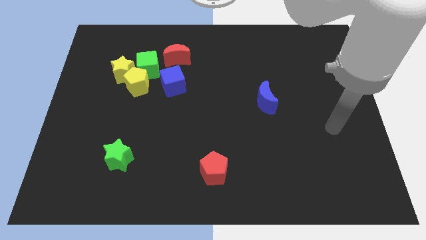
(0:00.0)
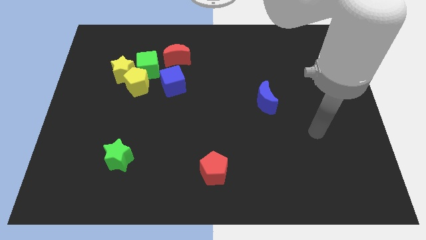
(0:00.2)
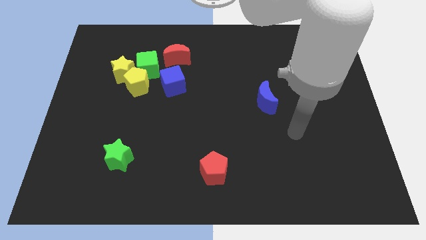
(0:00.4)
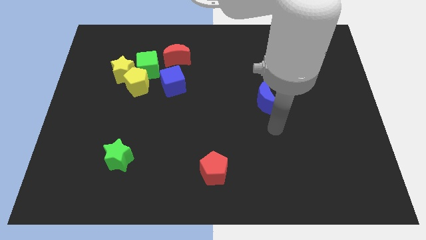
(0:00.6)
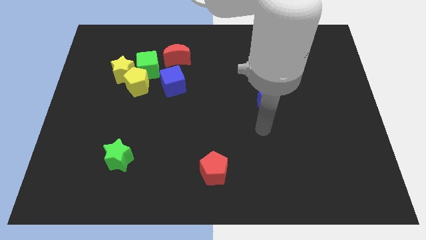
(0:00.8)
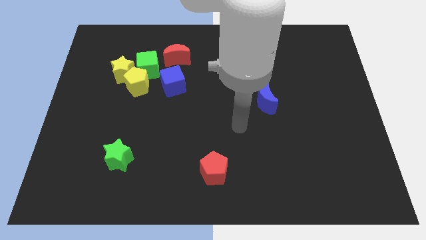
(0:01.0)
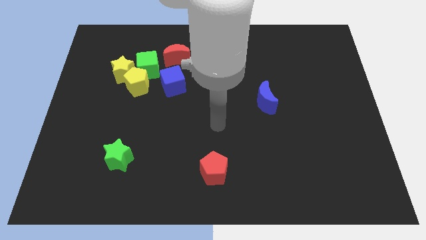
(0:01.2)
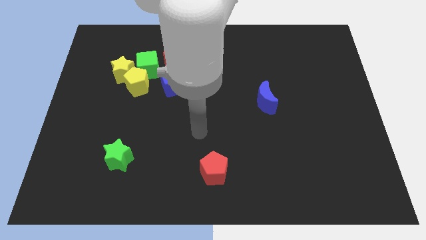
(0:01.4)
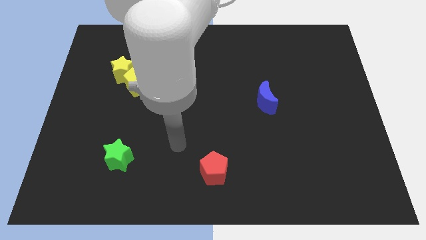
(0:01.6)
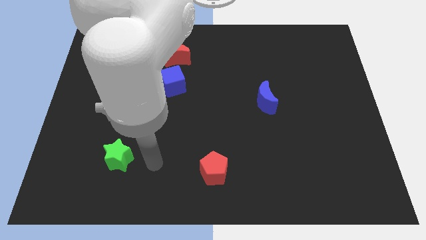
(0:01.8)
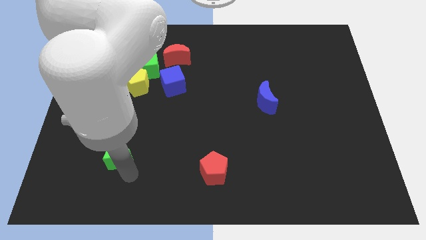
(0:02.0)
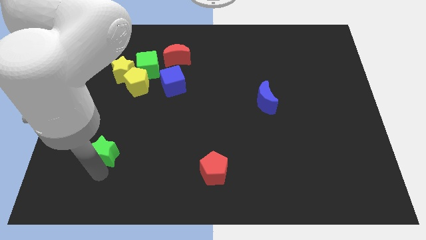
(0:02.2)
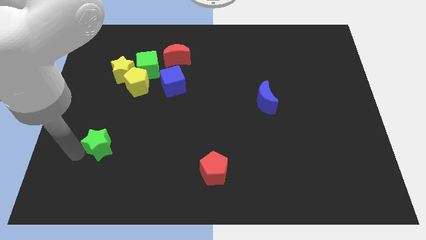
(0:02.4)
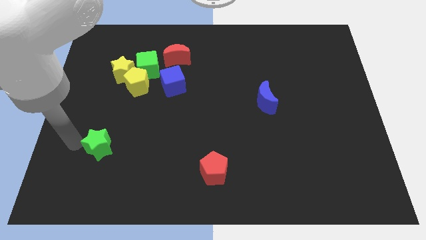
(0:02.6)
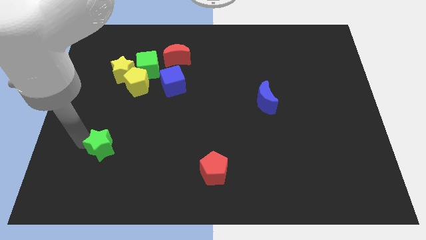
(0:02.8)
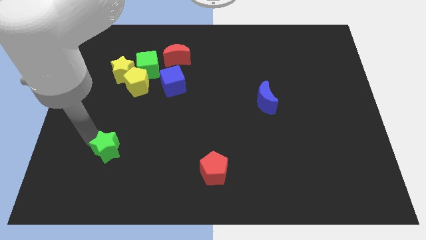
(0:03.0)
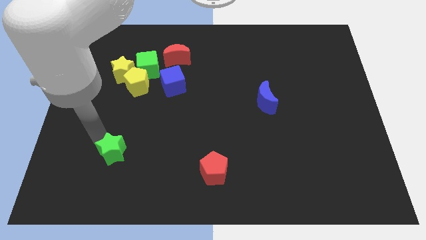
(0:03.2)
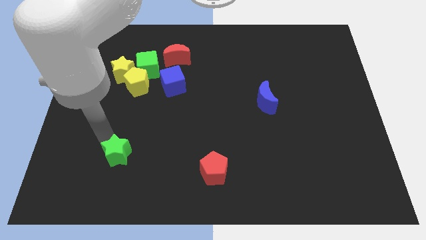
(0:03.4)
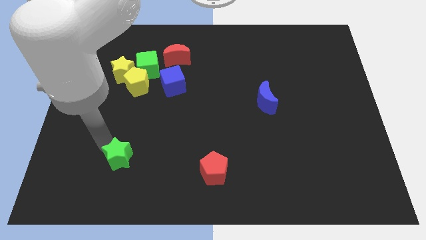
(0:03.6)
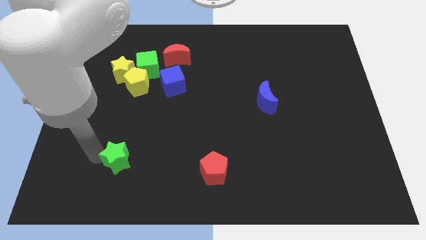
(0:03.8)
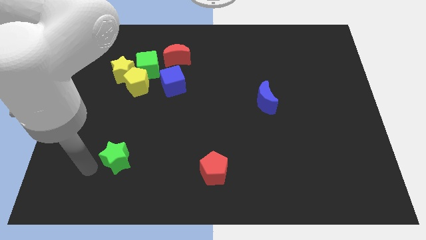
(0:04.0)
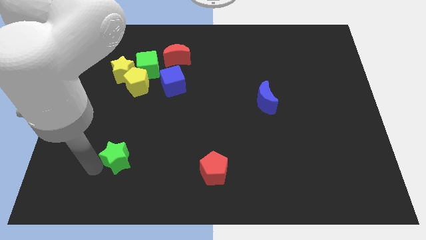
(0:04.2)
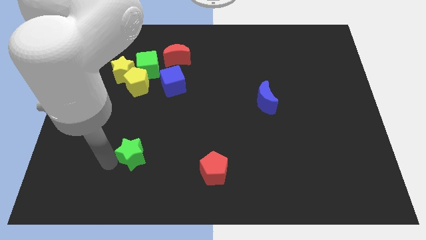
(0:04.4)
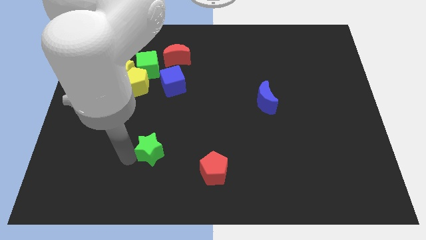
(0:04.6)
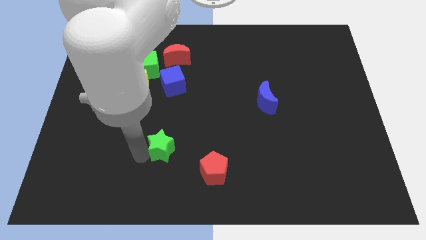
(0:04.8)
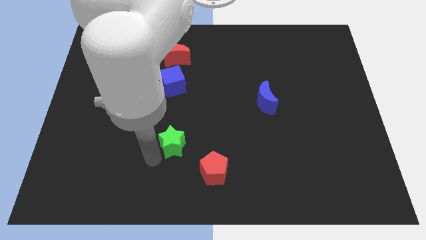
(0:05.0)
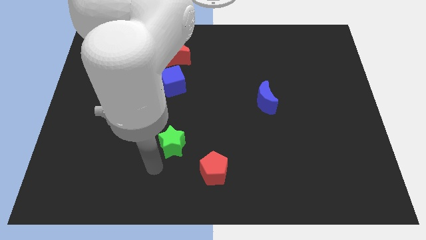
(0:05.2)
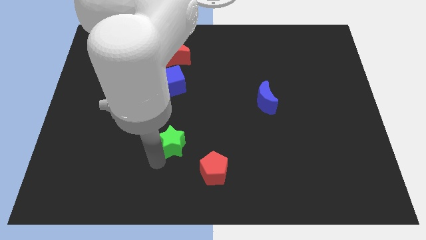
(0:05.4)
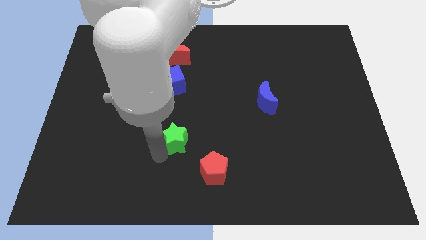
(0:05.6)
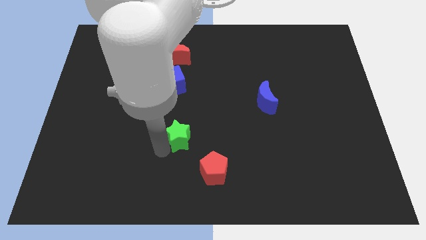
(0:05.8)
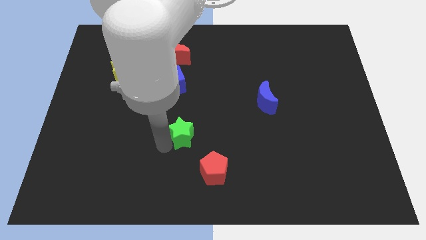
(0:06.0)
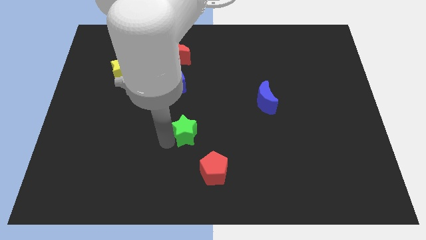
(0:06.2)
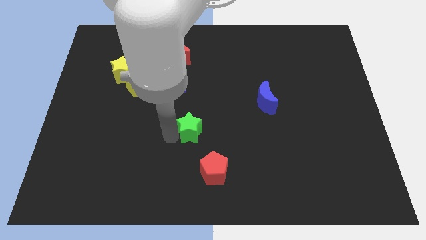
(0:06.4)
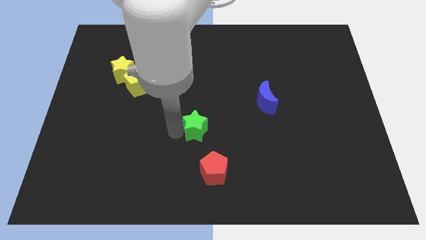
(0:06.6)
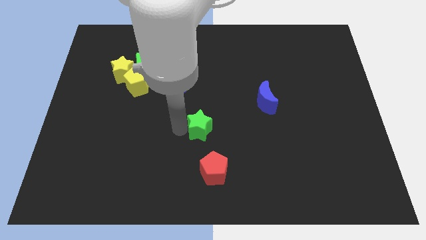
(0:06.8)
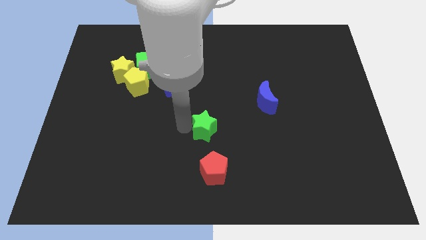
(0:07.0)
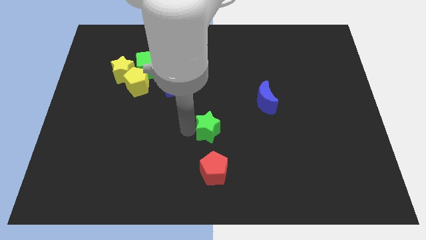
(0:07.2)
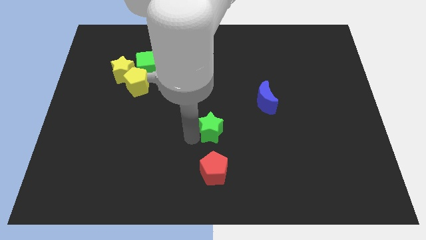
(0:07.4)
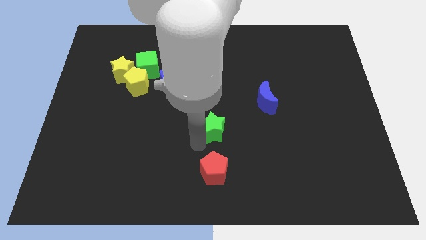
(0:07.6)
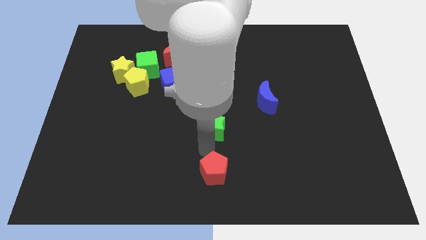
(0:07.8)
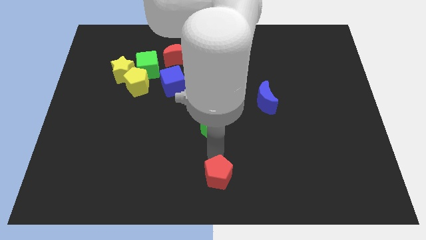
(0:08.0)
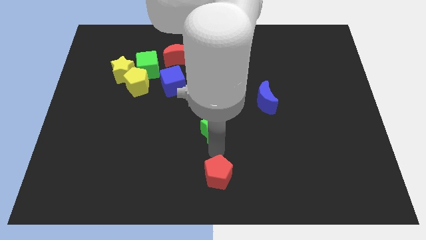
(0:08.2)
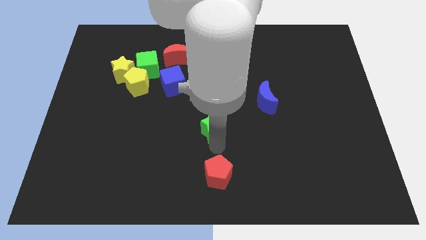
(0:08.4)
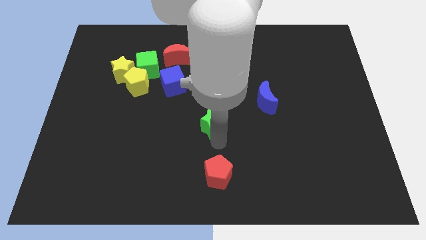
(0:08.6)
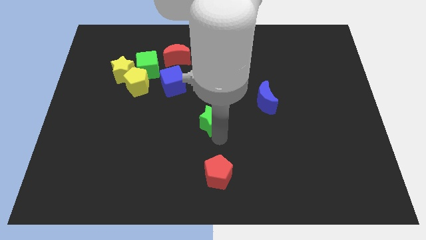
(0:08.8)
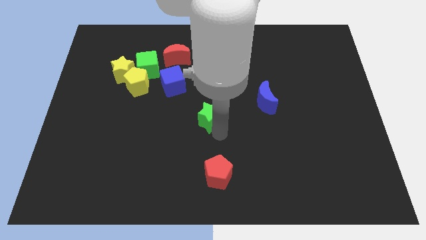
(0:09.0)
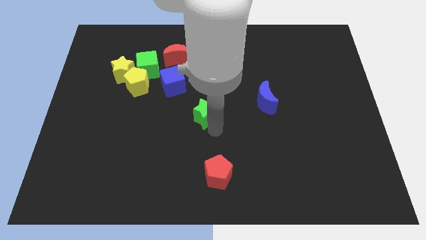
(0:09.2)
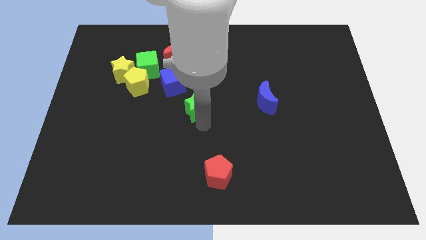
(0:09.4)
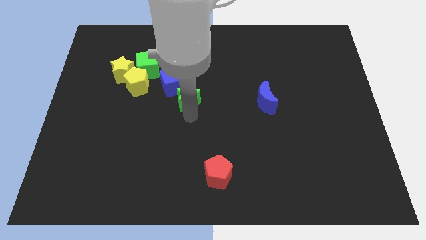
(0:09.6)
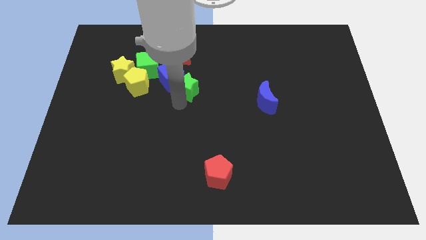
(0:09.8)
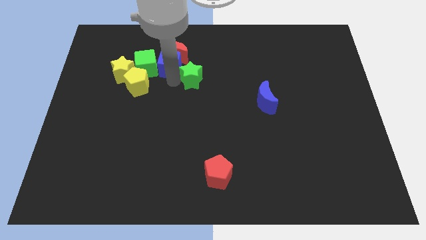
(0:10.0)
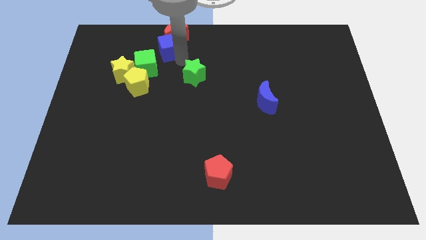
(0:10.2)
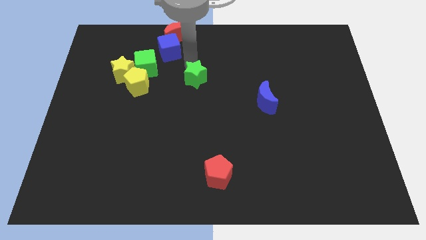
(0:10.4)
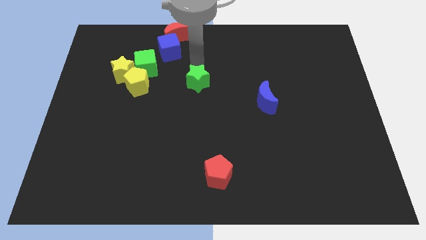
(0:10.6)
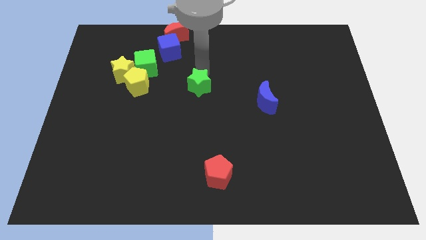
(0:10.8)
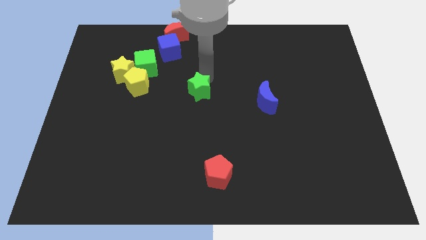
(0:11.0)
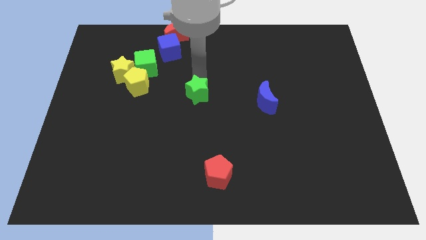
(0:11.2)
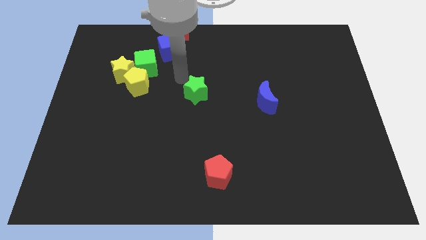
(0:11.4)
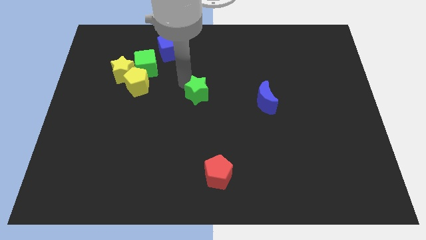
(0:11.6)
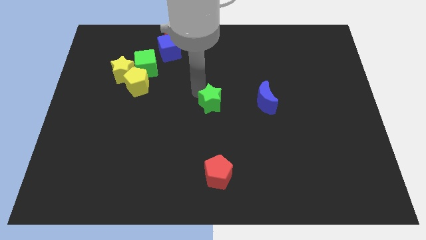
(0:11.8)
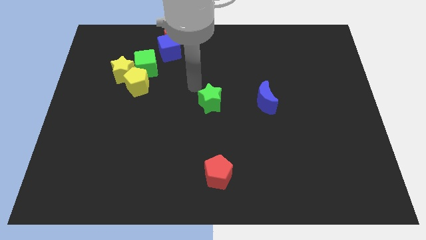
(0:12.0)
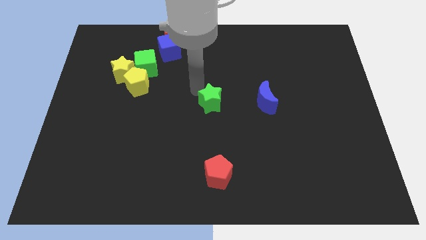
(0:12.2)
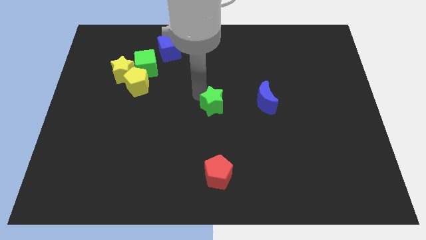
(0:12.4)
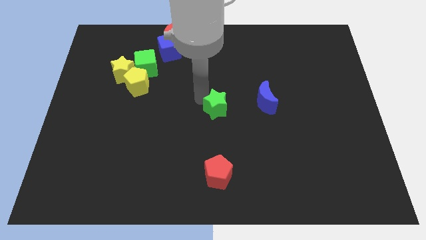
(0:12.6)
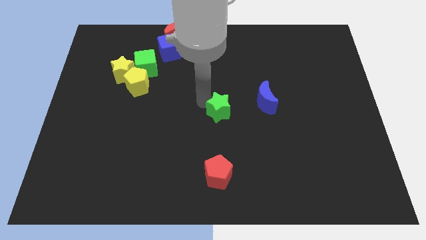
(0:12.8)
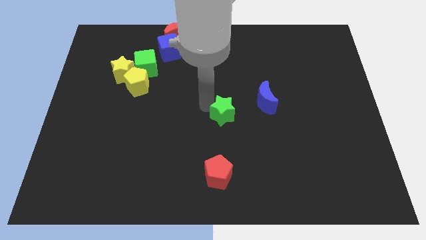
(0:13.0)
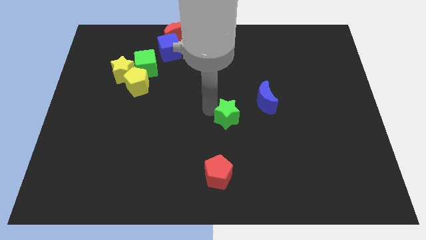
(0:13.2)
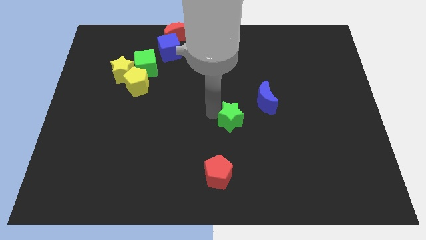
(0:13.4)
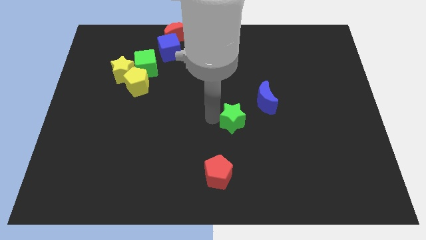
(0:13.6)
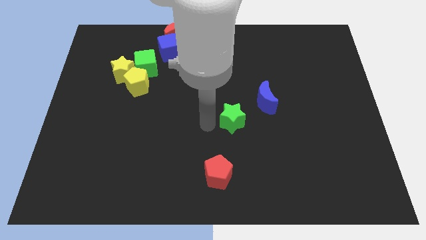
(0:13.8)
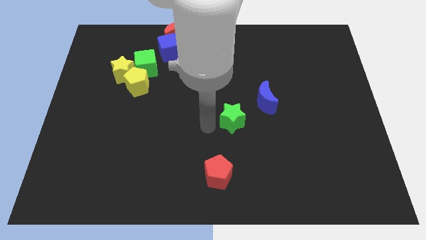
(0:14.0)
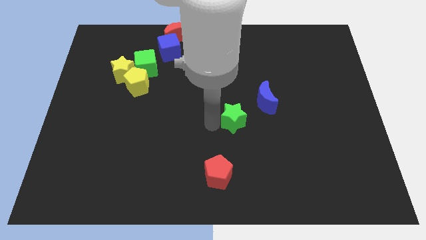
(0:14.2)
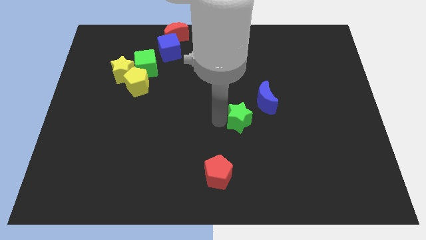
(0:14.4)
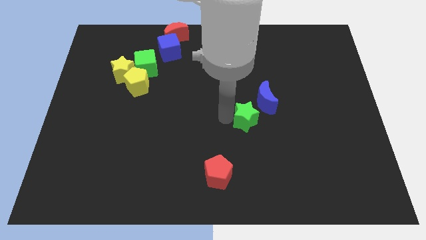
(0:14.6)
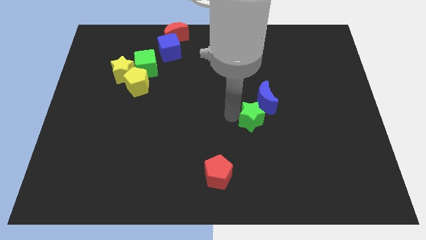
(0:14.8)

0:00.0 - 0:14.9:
push the green star towards the blue moon

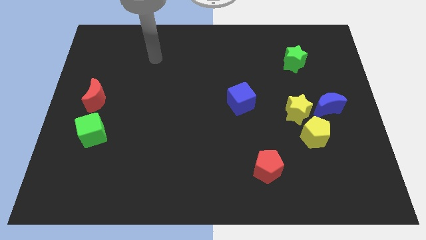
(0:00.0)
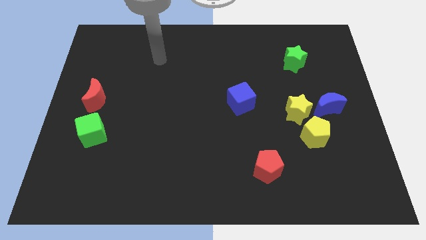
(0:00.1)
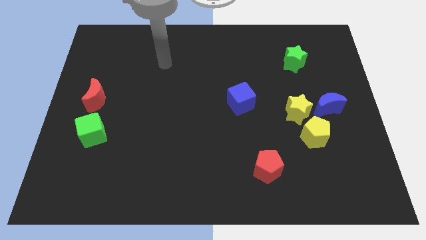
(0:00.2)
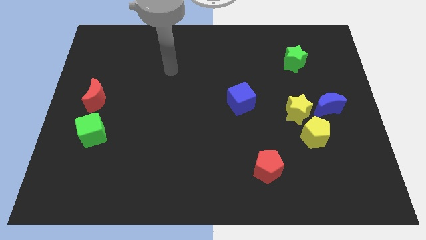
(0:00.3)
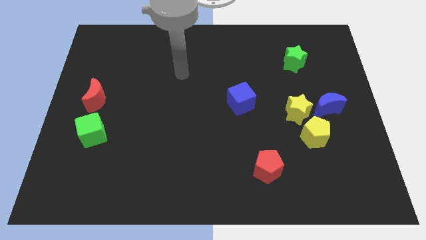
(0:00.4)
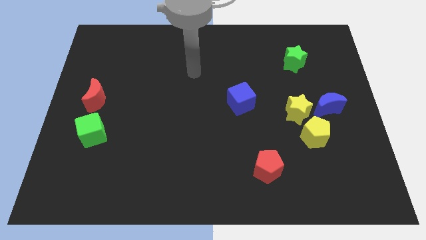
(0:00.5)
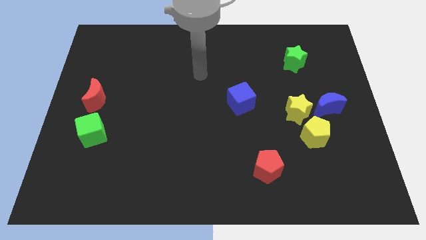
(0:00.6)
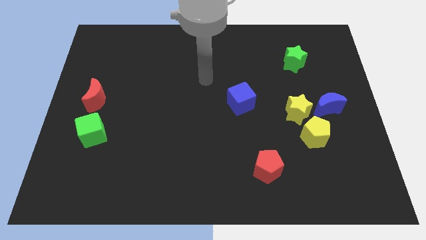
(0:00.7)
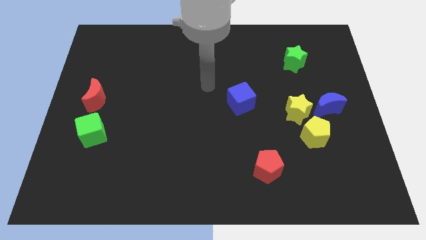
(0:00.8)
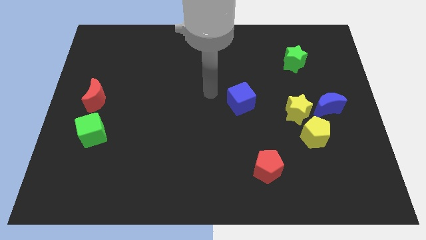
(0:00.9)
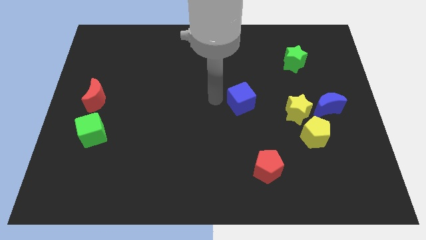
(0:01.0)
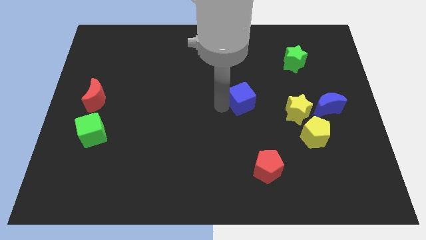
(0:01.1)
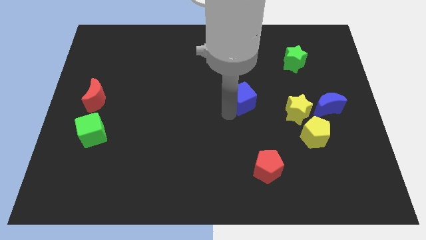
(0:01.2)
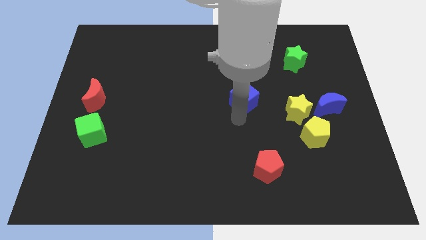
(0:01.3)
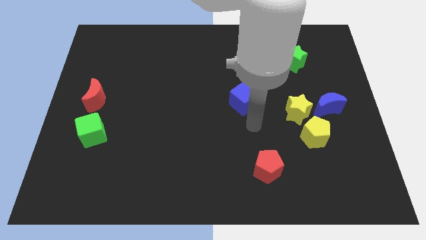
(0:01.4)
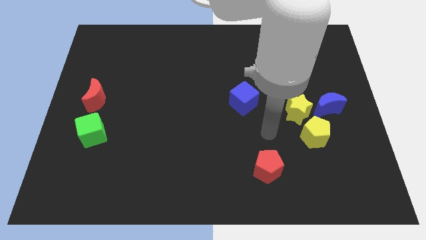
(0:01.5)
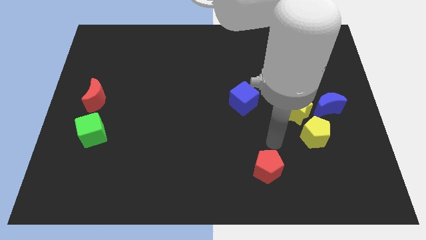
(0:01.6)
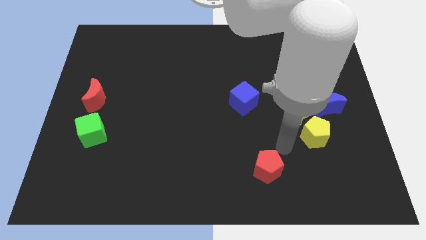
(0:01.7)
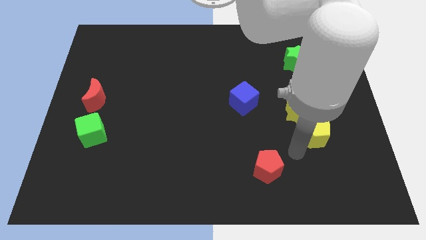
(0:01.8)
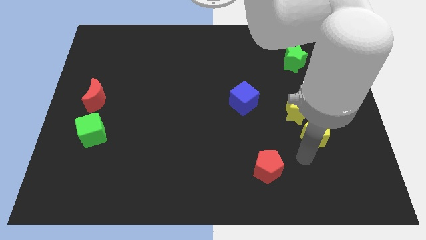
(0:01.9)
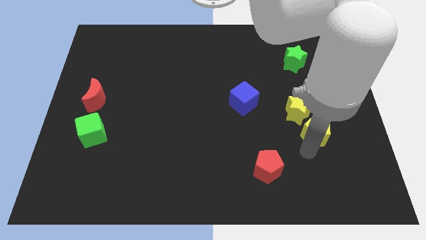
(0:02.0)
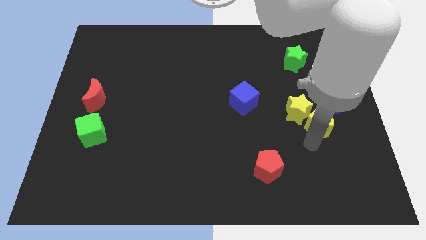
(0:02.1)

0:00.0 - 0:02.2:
put the yellow pentagon to the blue moon
